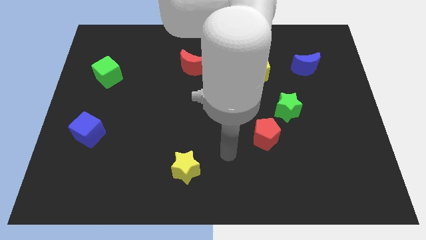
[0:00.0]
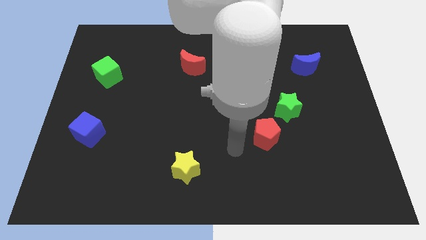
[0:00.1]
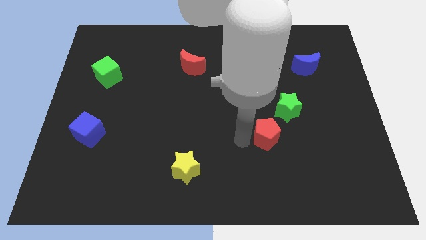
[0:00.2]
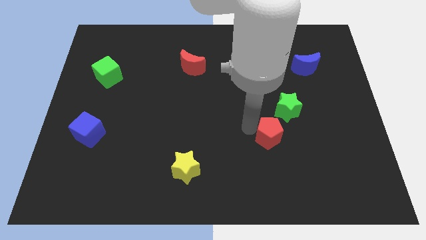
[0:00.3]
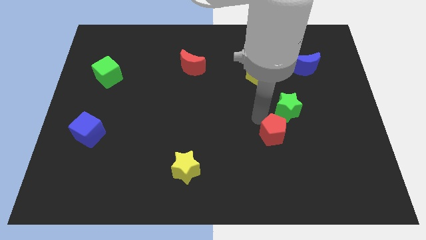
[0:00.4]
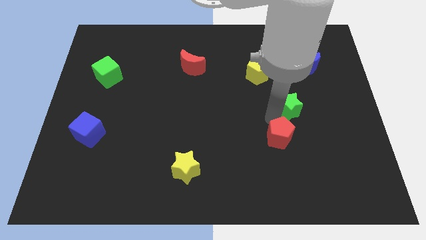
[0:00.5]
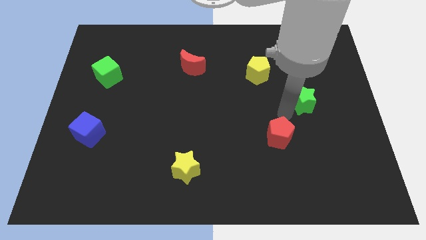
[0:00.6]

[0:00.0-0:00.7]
separate the red pentagon from the green star

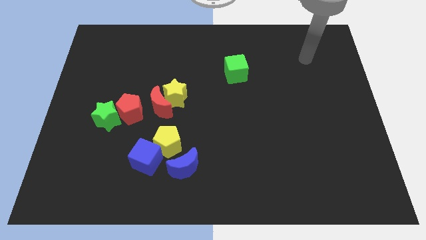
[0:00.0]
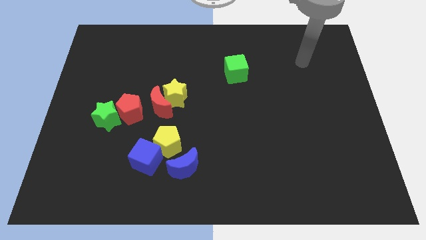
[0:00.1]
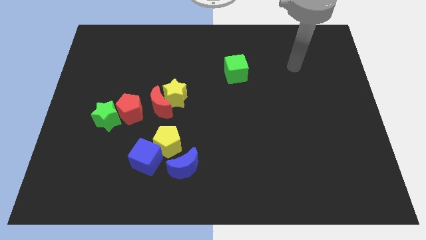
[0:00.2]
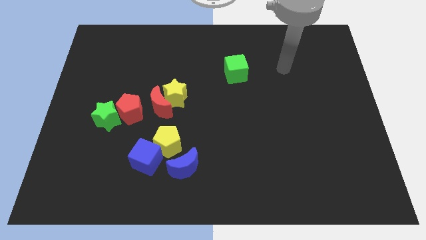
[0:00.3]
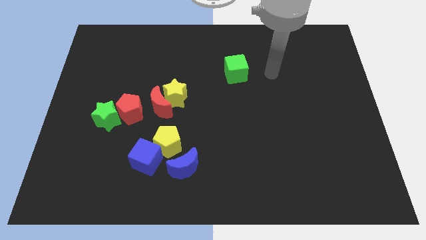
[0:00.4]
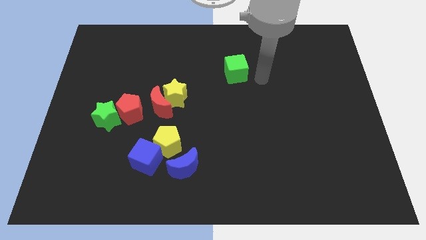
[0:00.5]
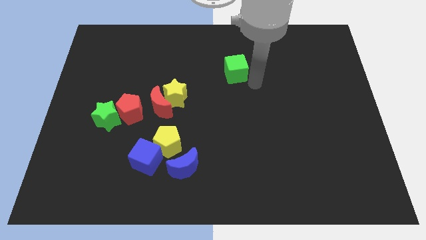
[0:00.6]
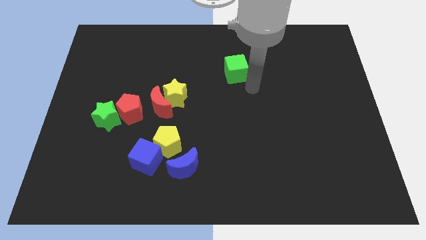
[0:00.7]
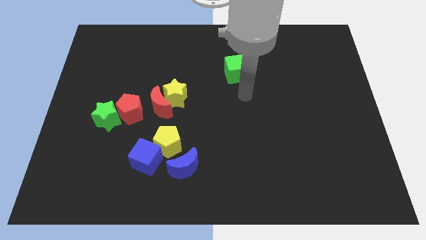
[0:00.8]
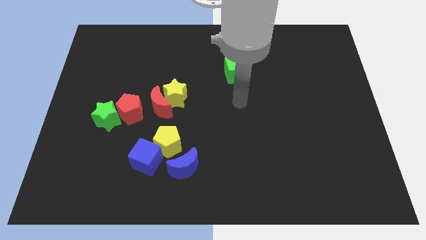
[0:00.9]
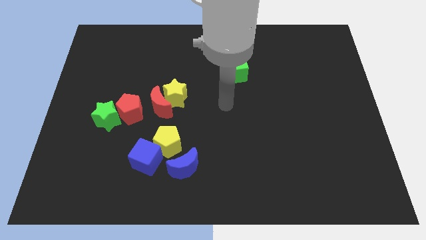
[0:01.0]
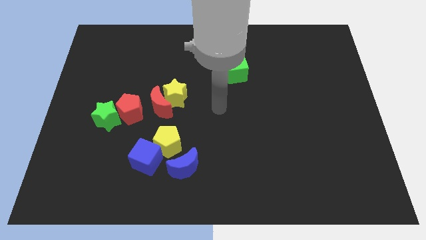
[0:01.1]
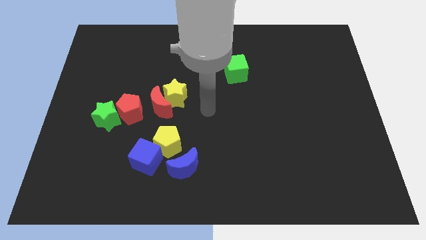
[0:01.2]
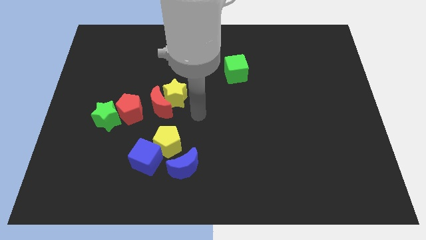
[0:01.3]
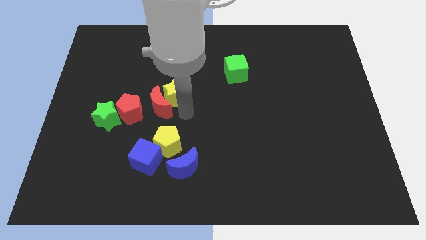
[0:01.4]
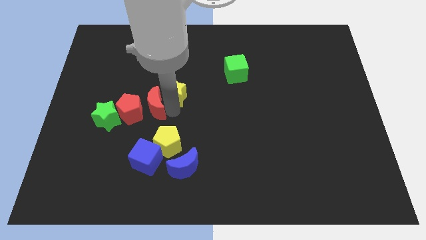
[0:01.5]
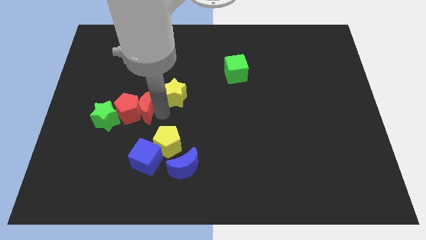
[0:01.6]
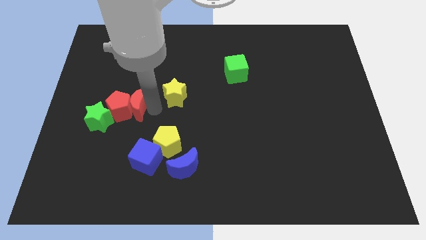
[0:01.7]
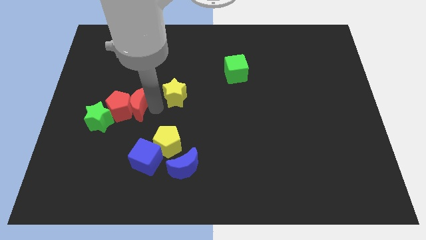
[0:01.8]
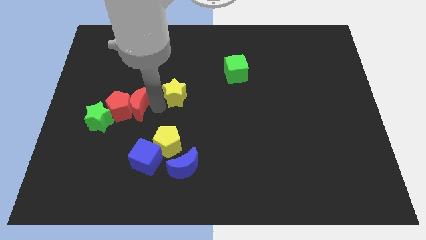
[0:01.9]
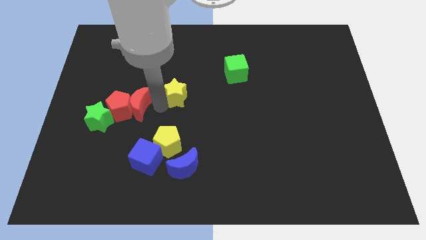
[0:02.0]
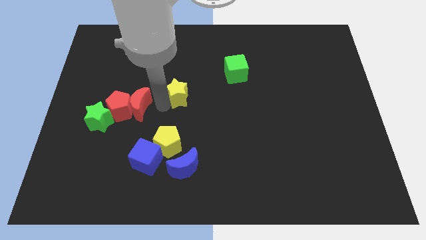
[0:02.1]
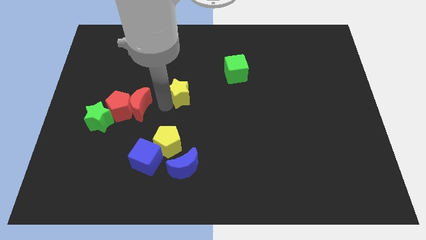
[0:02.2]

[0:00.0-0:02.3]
move the yellow star away from the red moon

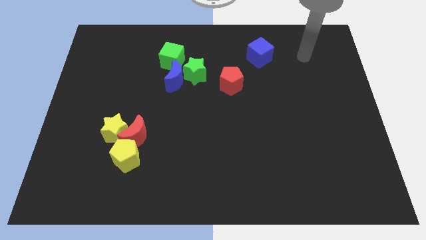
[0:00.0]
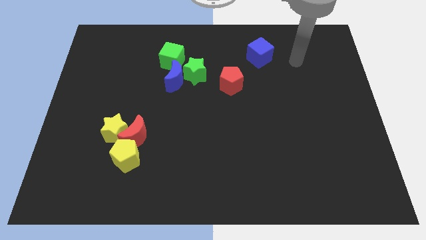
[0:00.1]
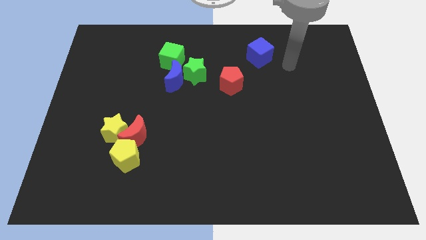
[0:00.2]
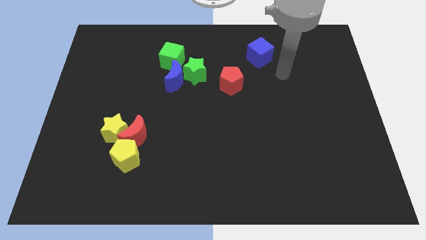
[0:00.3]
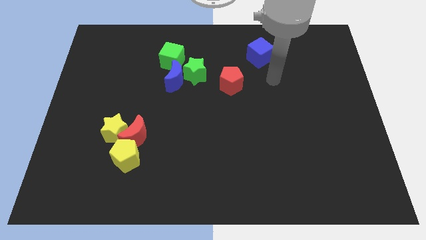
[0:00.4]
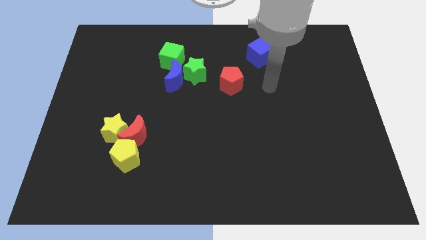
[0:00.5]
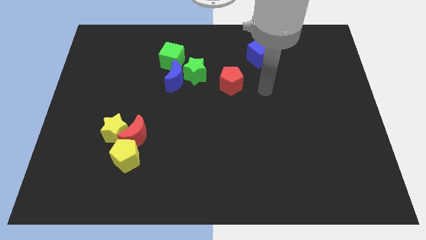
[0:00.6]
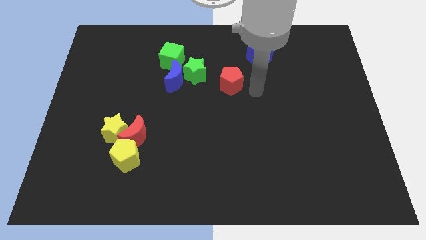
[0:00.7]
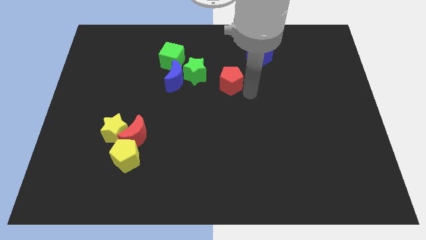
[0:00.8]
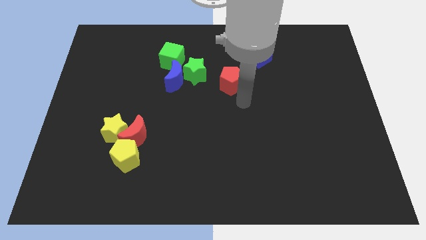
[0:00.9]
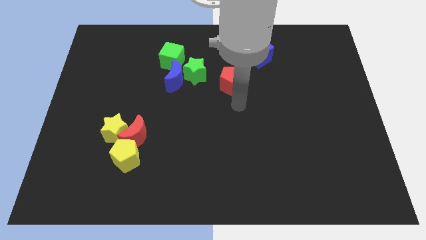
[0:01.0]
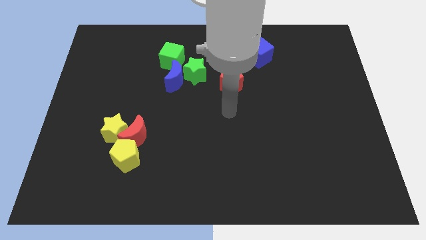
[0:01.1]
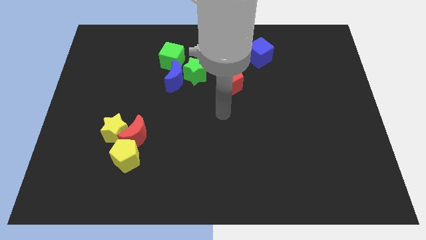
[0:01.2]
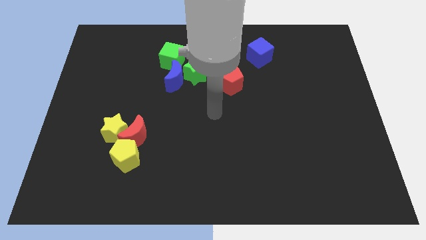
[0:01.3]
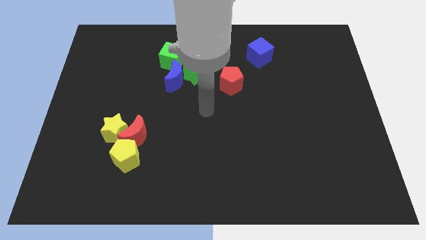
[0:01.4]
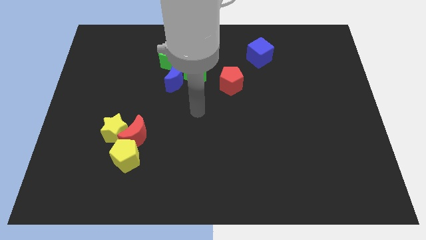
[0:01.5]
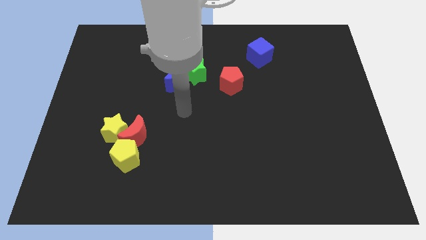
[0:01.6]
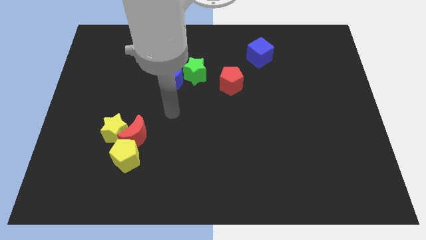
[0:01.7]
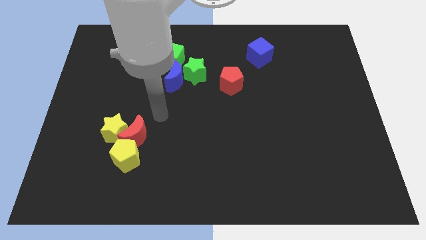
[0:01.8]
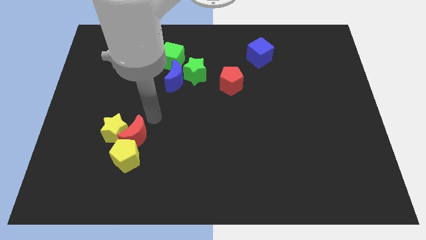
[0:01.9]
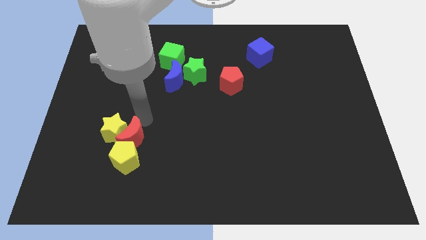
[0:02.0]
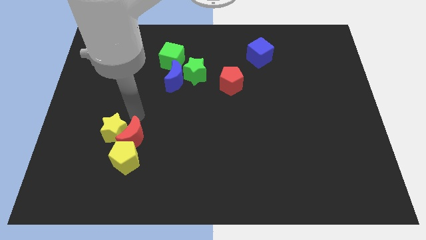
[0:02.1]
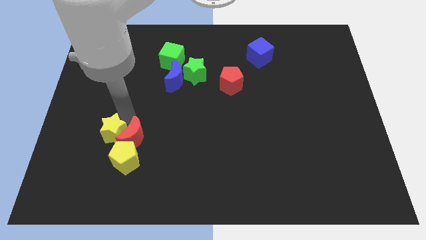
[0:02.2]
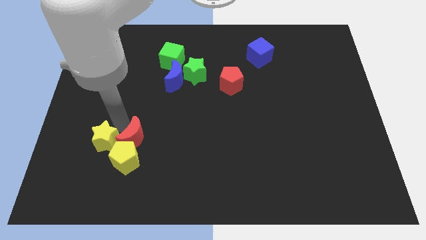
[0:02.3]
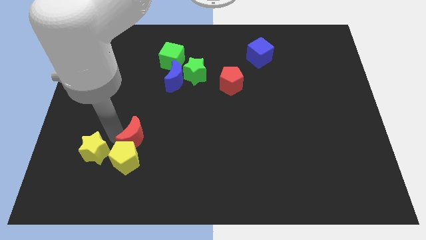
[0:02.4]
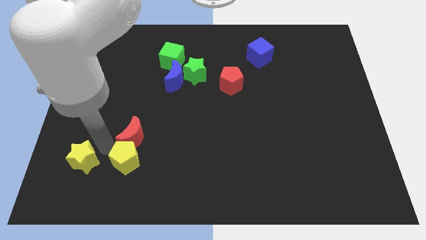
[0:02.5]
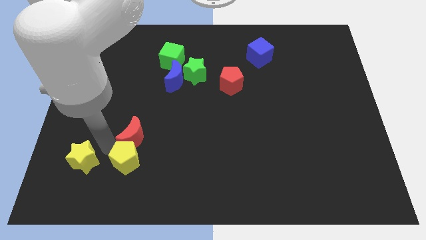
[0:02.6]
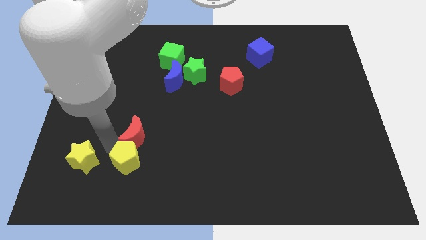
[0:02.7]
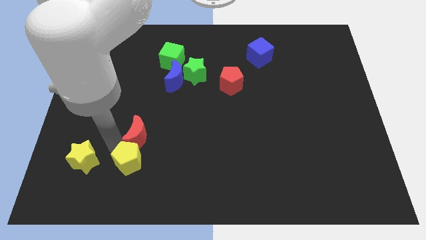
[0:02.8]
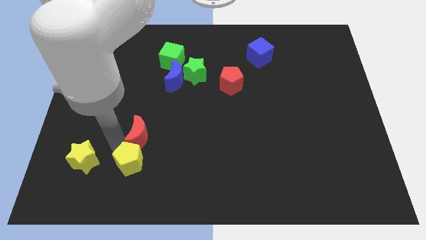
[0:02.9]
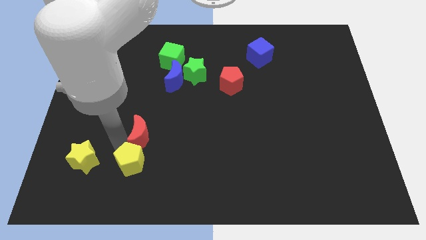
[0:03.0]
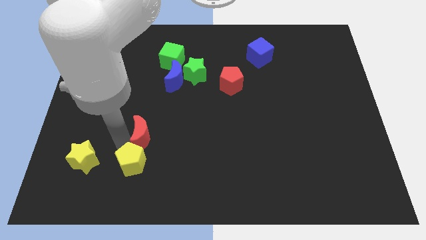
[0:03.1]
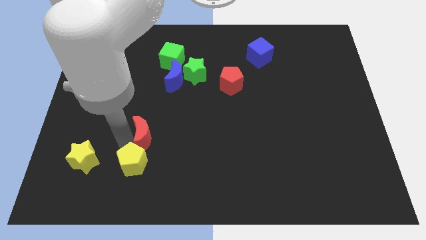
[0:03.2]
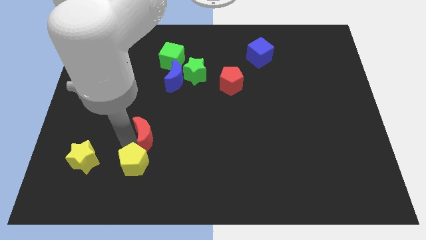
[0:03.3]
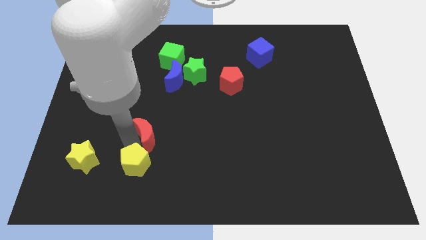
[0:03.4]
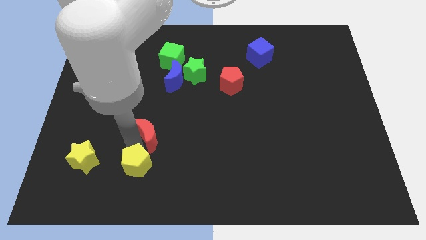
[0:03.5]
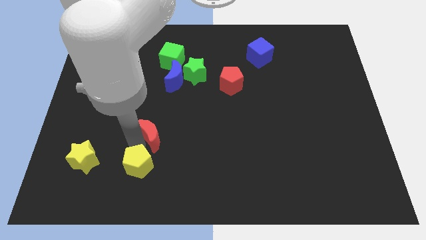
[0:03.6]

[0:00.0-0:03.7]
separate the red moon from the yellow star and yellow pentagon

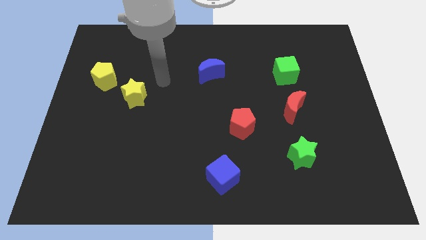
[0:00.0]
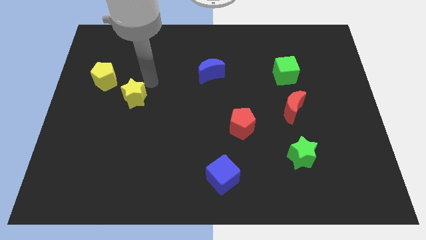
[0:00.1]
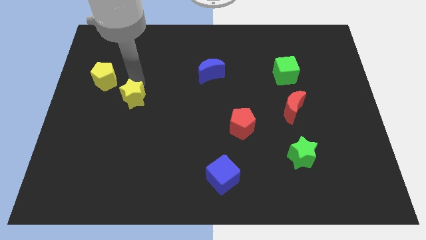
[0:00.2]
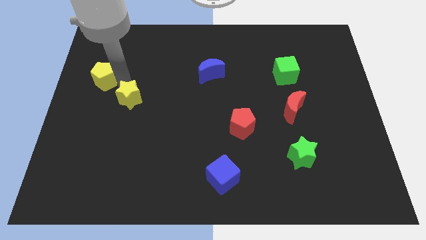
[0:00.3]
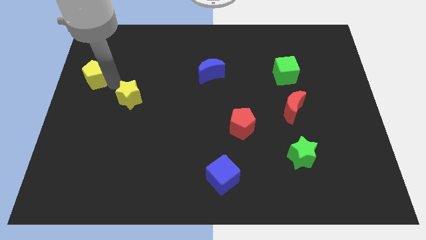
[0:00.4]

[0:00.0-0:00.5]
move the yellow star away from the yellow pentagon

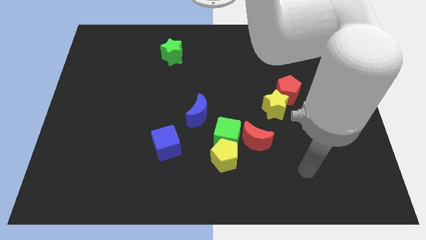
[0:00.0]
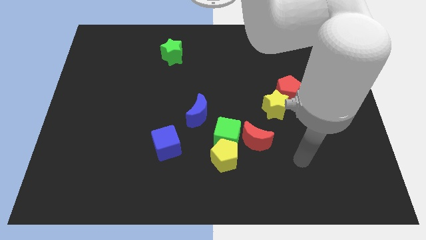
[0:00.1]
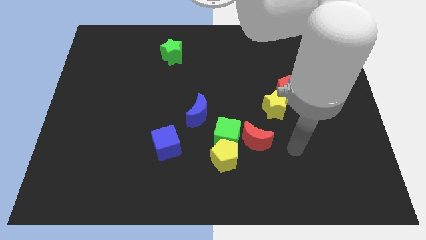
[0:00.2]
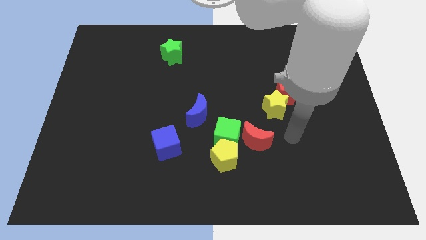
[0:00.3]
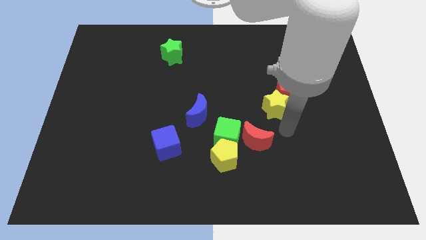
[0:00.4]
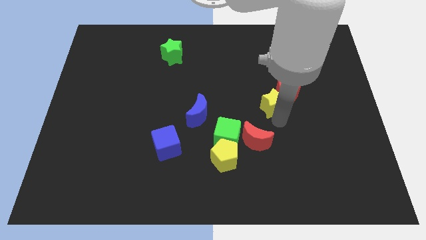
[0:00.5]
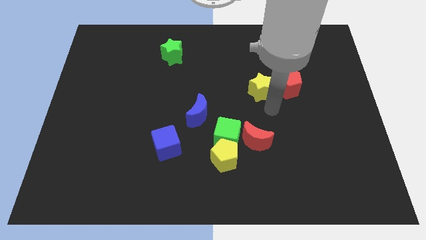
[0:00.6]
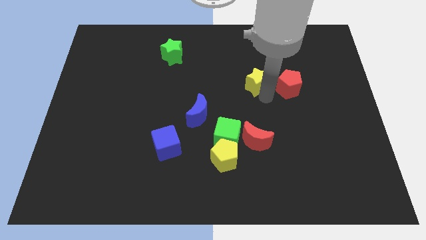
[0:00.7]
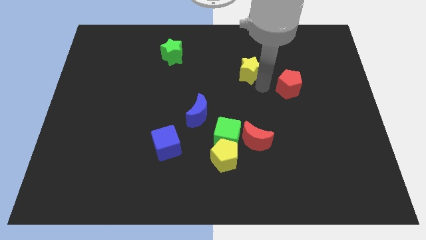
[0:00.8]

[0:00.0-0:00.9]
pull the red pentagon apart from the yellow star

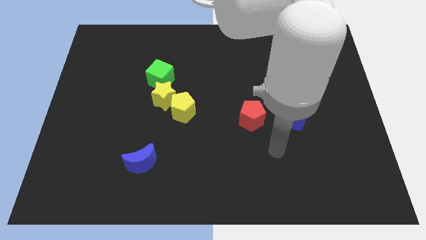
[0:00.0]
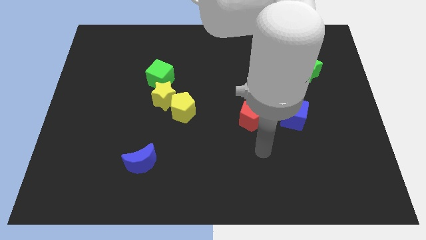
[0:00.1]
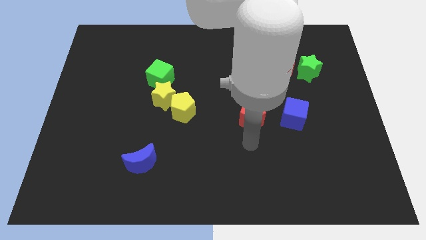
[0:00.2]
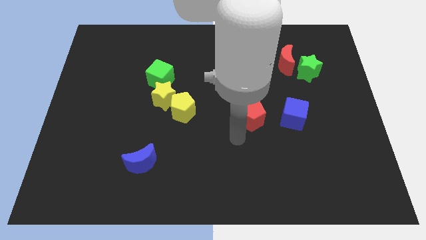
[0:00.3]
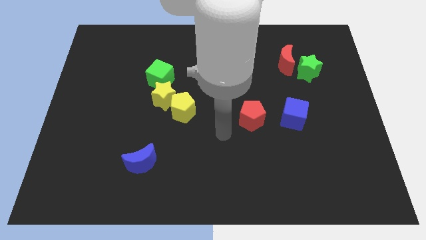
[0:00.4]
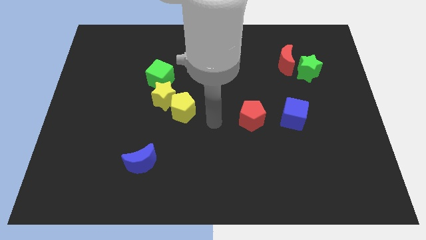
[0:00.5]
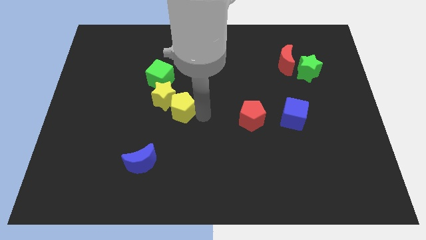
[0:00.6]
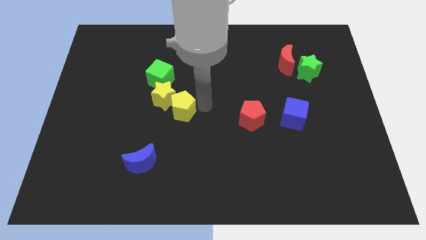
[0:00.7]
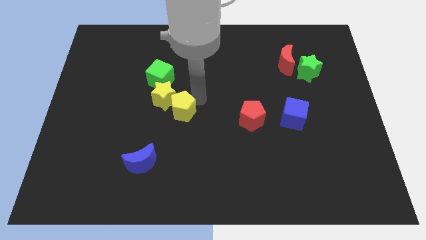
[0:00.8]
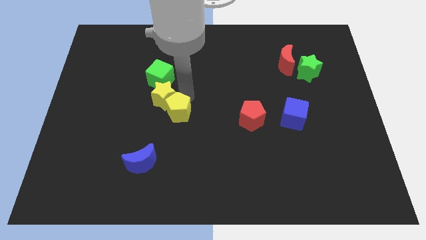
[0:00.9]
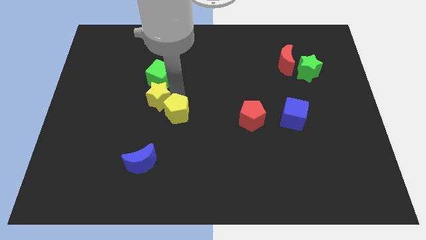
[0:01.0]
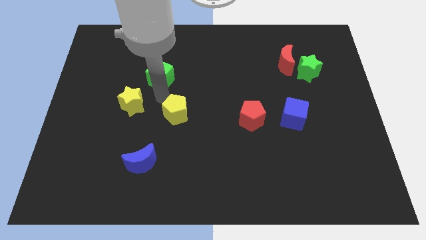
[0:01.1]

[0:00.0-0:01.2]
separate the yellow pentagon from the yellow star
